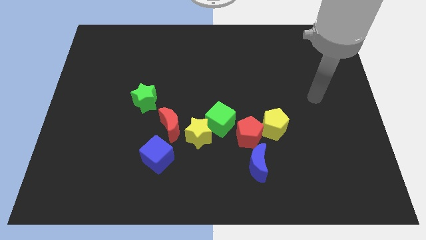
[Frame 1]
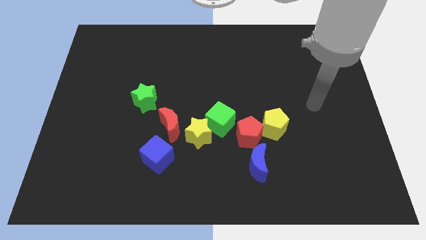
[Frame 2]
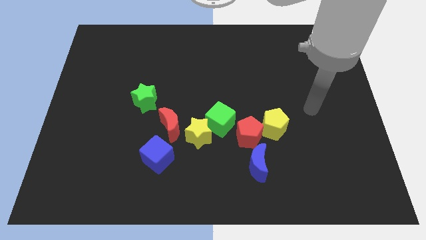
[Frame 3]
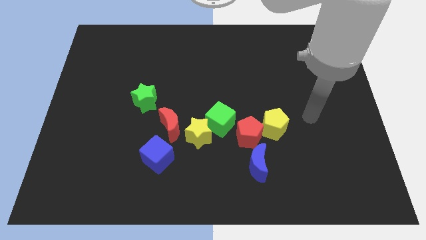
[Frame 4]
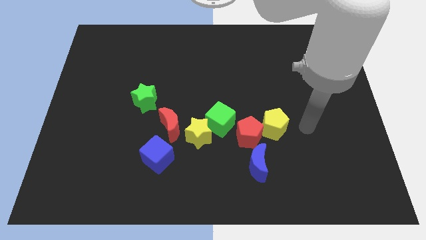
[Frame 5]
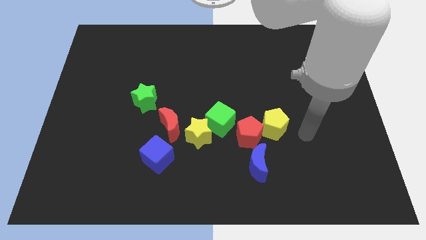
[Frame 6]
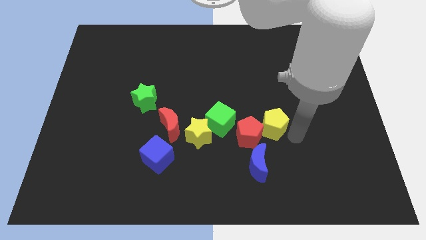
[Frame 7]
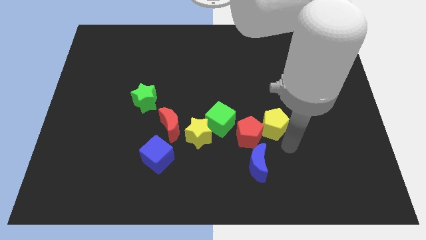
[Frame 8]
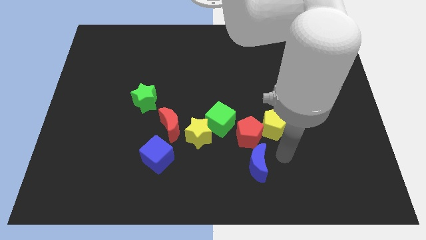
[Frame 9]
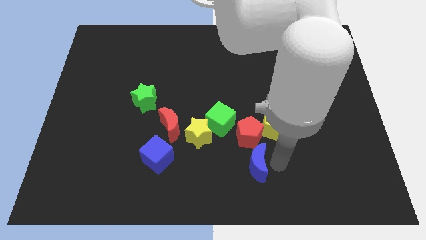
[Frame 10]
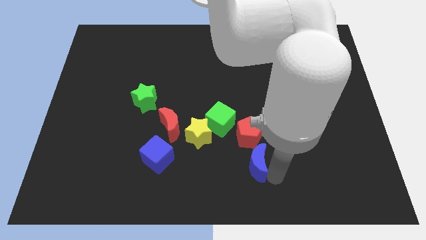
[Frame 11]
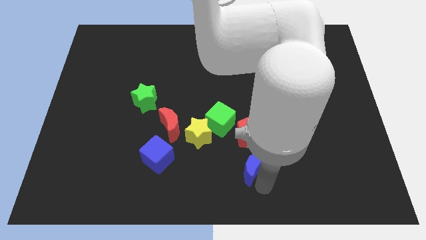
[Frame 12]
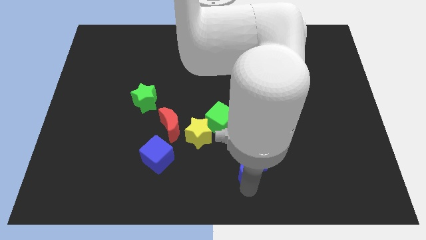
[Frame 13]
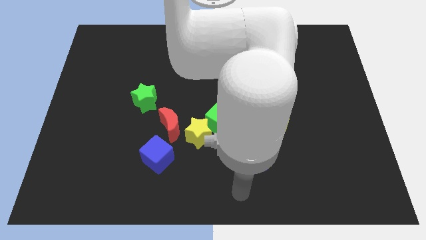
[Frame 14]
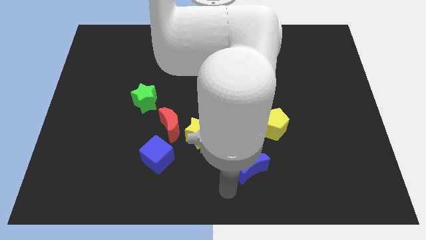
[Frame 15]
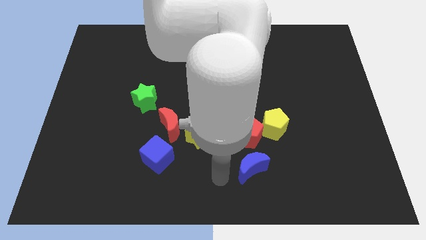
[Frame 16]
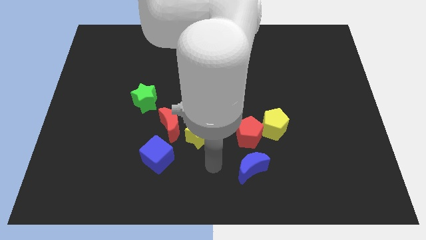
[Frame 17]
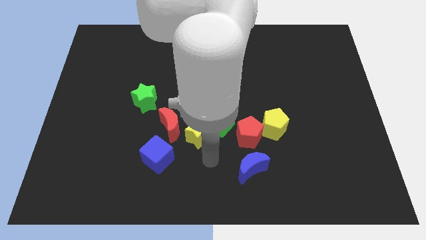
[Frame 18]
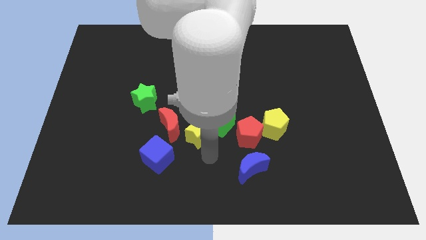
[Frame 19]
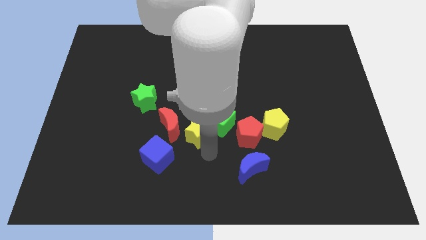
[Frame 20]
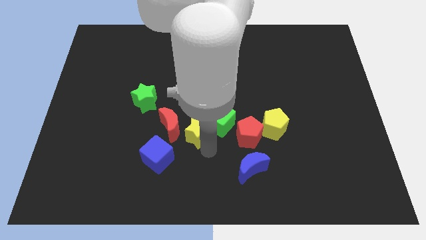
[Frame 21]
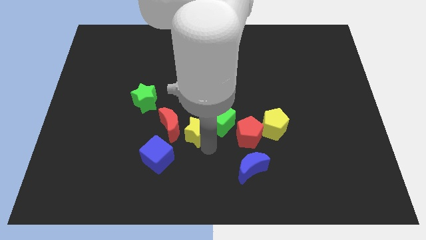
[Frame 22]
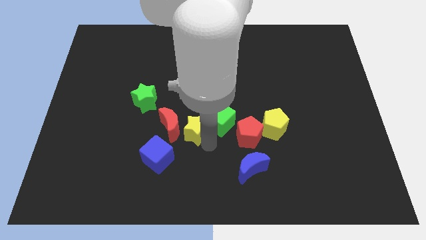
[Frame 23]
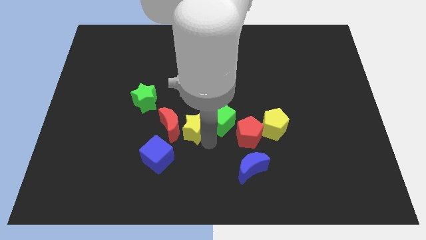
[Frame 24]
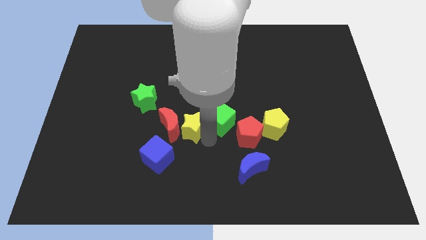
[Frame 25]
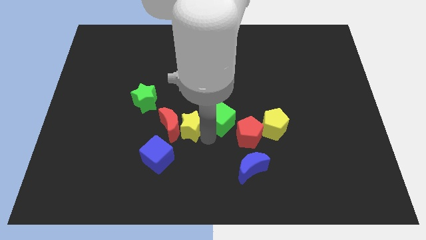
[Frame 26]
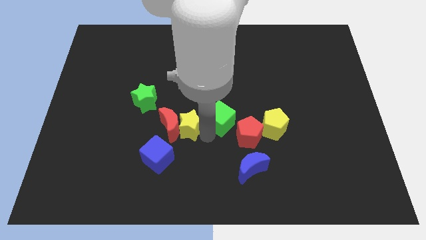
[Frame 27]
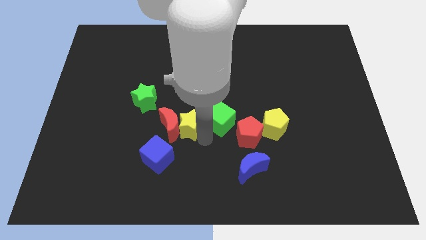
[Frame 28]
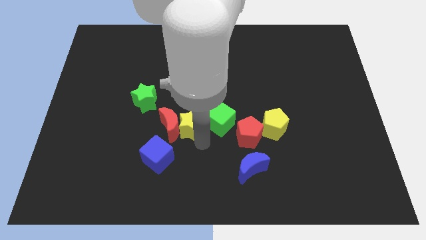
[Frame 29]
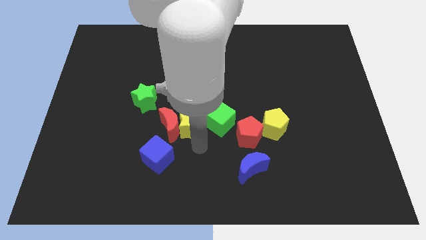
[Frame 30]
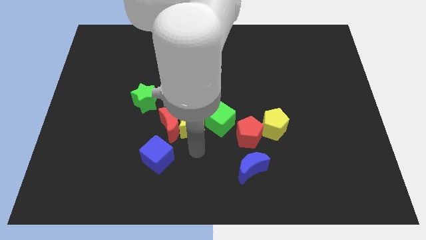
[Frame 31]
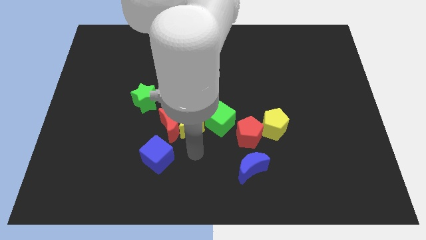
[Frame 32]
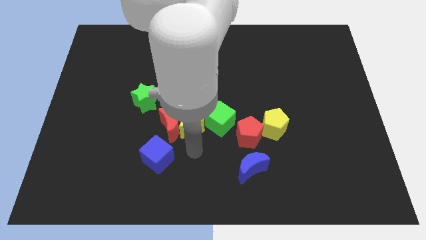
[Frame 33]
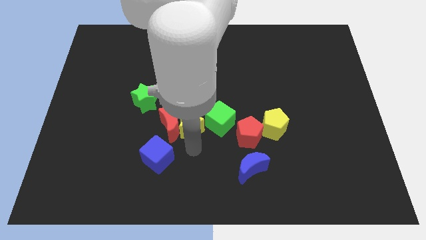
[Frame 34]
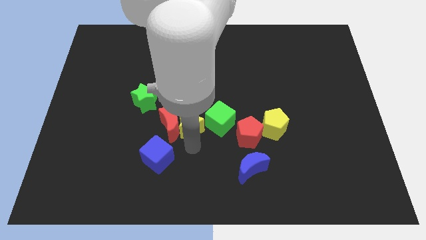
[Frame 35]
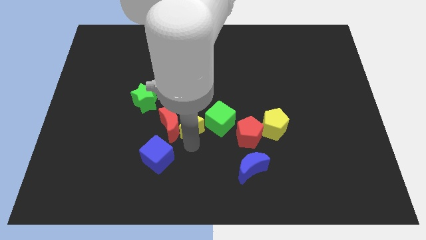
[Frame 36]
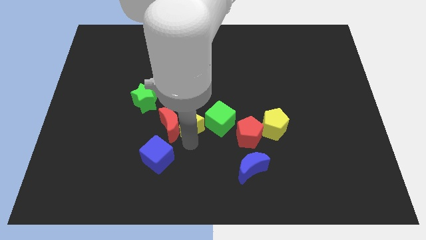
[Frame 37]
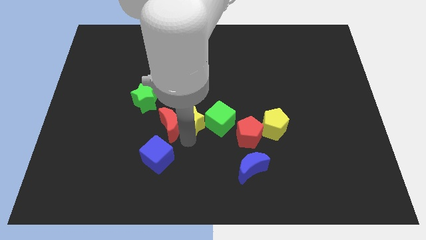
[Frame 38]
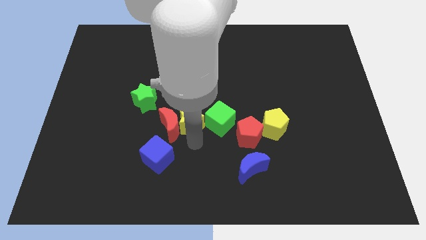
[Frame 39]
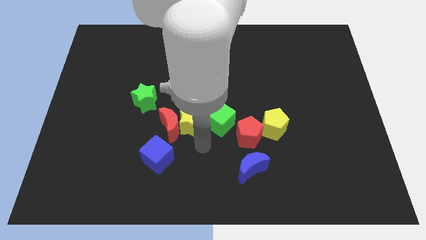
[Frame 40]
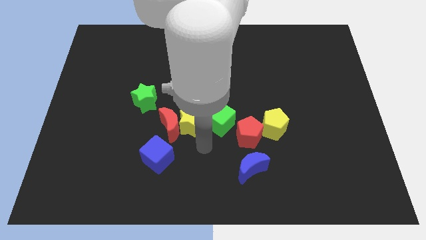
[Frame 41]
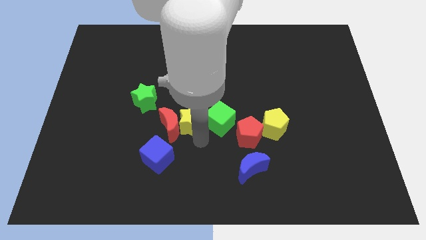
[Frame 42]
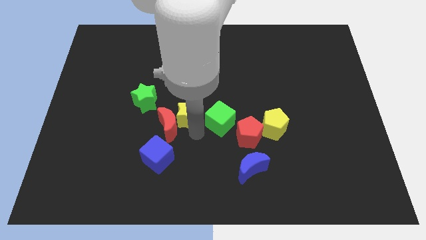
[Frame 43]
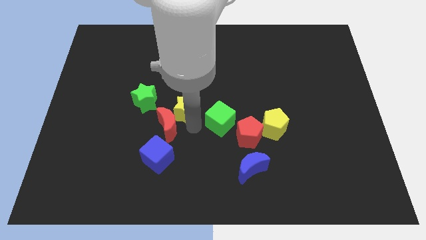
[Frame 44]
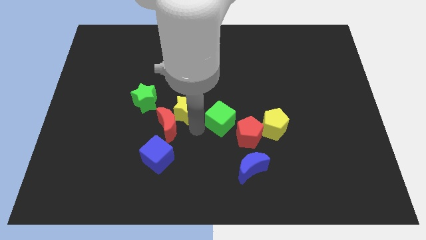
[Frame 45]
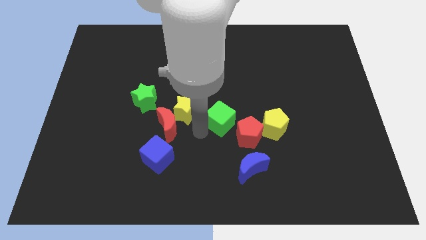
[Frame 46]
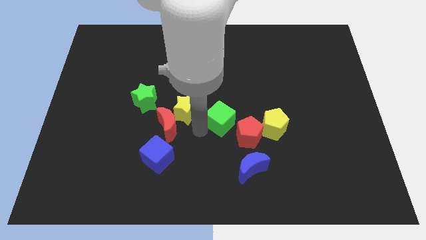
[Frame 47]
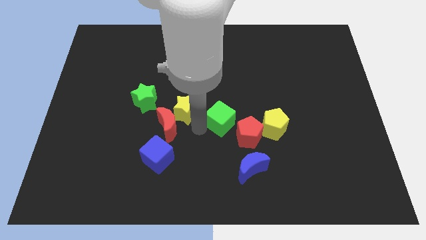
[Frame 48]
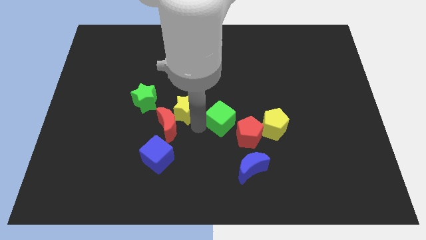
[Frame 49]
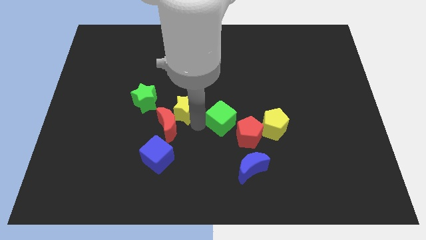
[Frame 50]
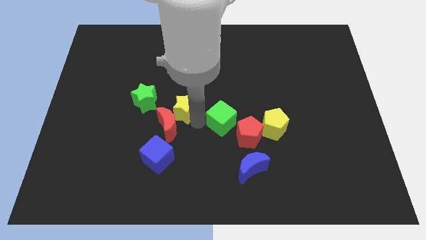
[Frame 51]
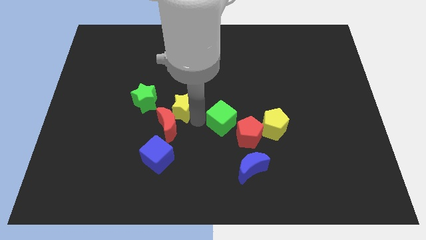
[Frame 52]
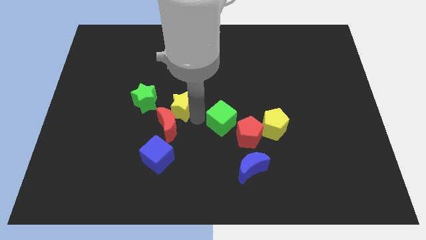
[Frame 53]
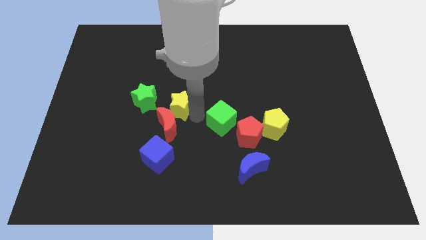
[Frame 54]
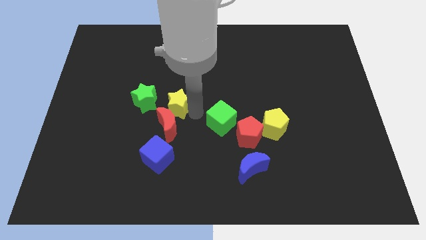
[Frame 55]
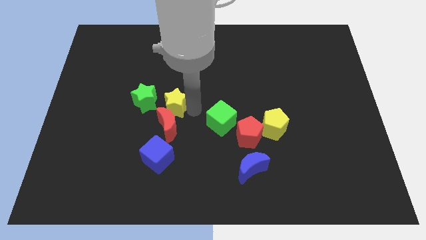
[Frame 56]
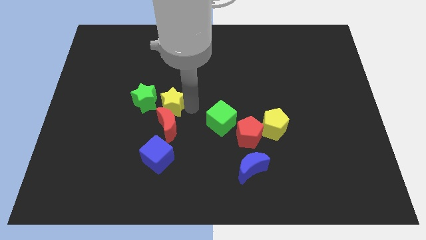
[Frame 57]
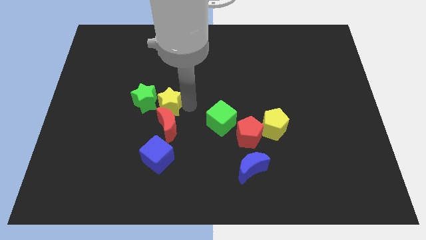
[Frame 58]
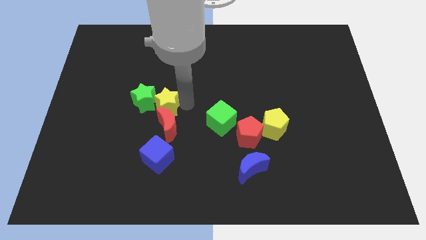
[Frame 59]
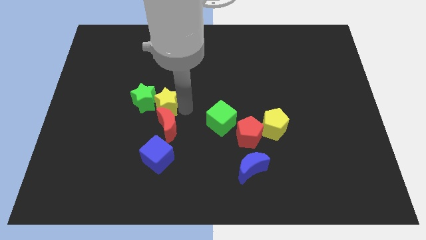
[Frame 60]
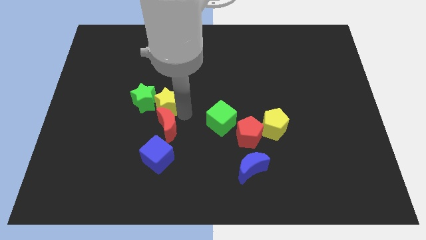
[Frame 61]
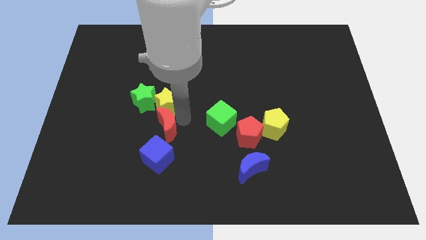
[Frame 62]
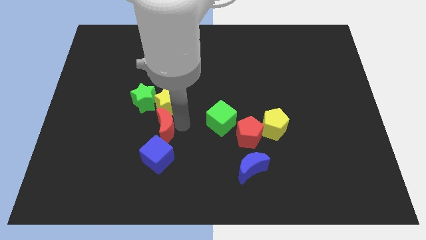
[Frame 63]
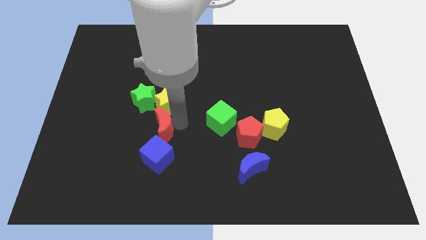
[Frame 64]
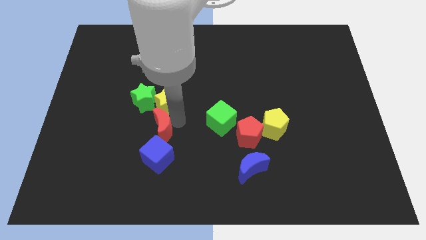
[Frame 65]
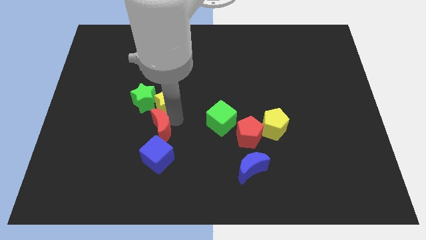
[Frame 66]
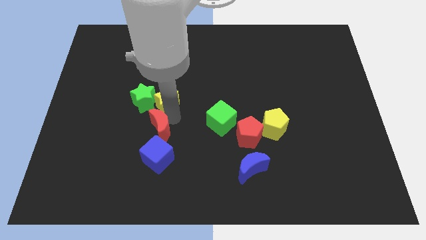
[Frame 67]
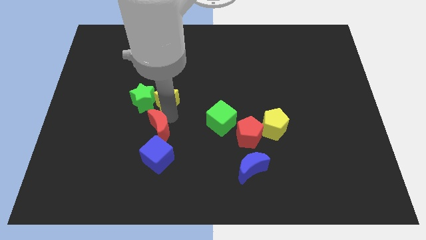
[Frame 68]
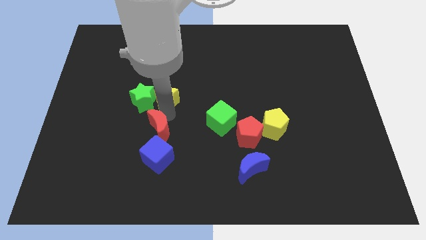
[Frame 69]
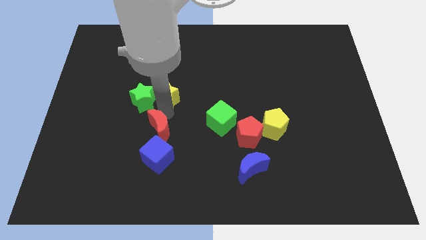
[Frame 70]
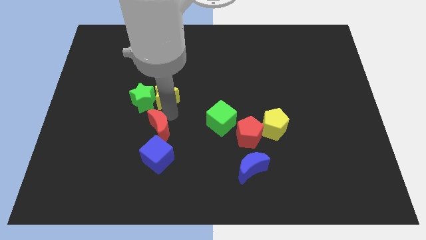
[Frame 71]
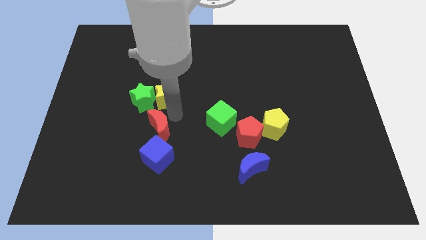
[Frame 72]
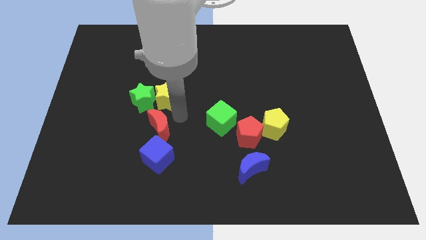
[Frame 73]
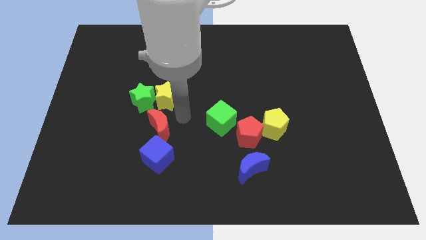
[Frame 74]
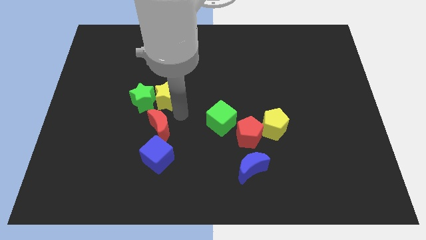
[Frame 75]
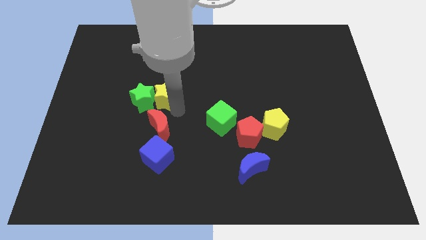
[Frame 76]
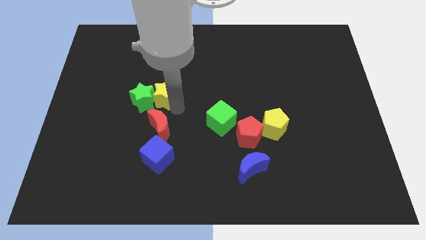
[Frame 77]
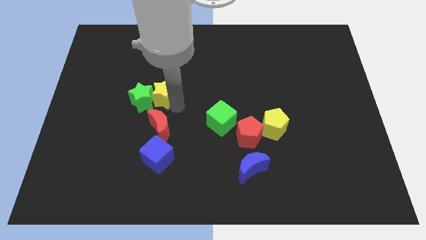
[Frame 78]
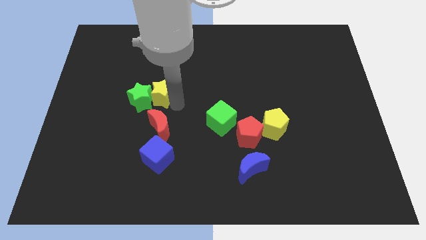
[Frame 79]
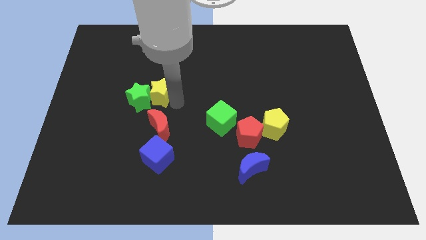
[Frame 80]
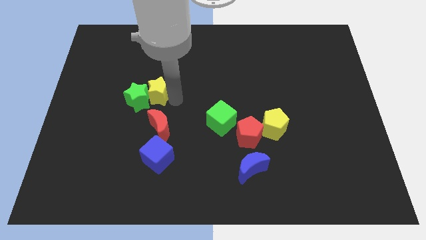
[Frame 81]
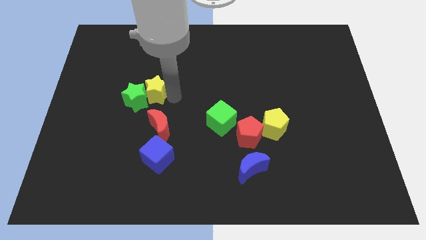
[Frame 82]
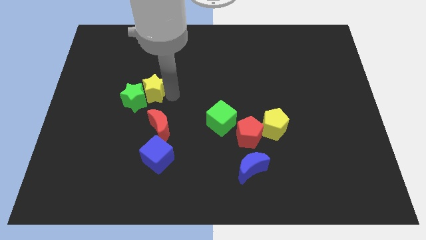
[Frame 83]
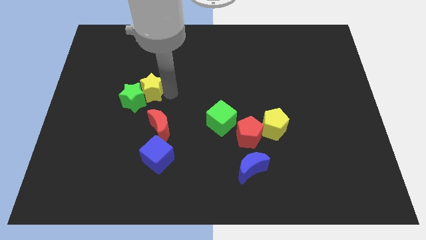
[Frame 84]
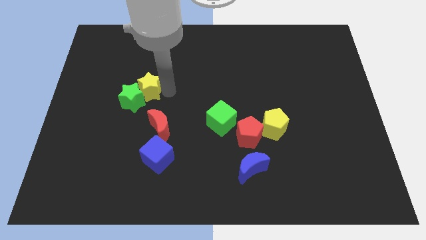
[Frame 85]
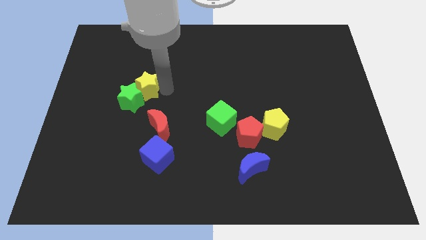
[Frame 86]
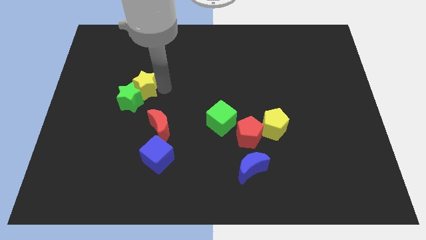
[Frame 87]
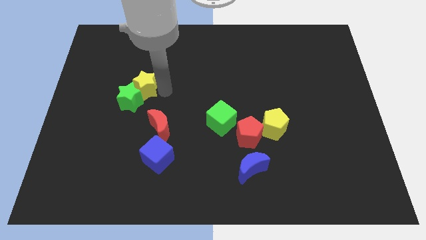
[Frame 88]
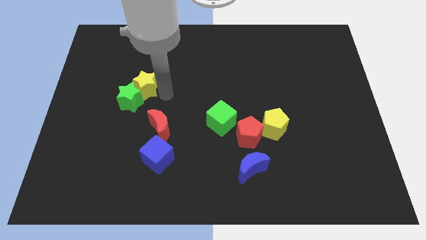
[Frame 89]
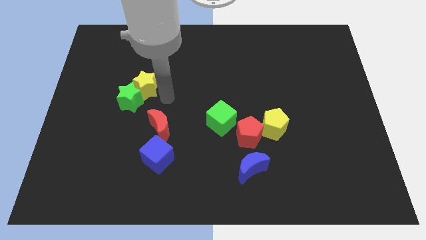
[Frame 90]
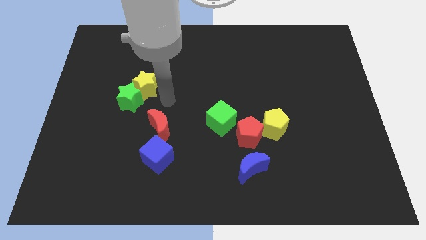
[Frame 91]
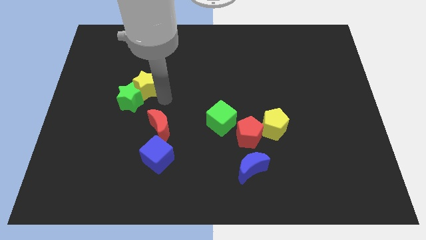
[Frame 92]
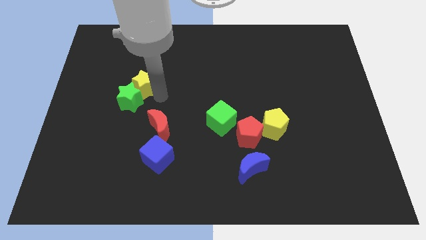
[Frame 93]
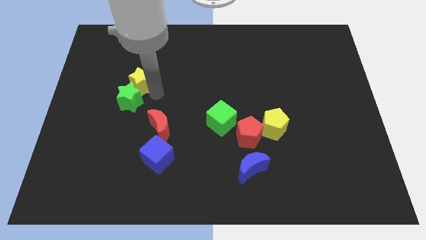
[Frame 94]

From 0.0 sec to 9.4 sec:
slide the yellow star up and then left
